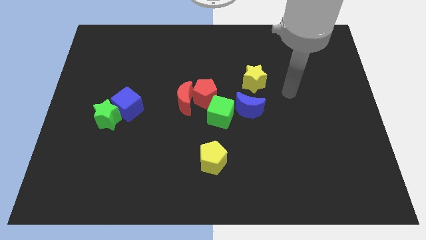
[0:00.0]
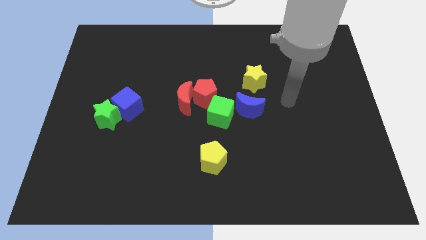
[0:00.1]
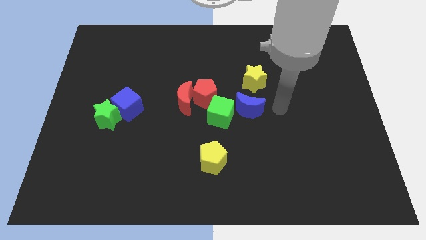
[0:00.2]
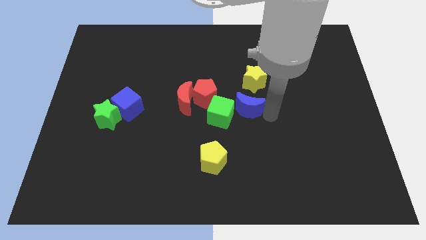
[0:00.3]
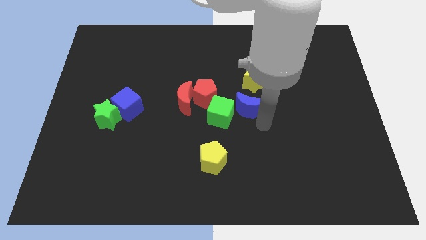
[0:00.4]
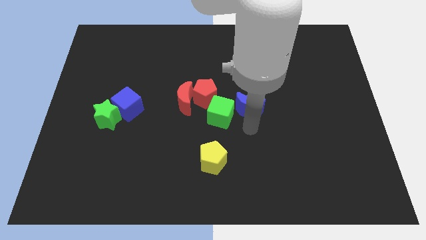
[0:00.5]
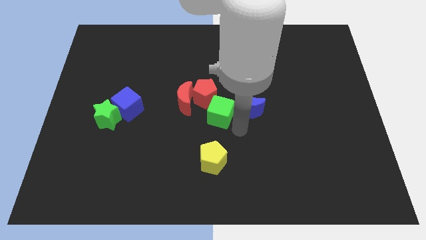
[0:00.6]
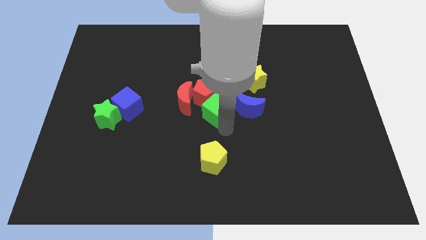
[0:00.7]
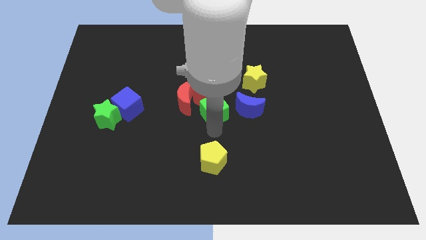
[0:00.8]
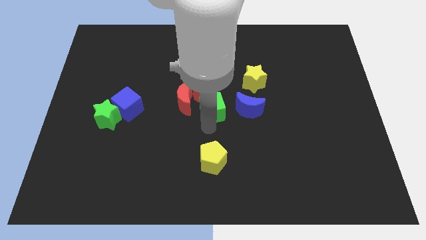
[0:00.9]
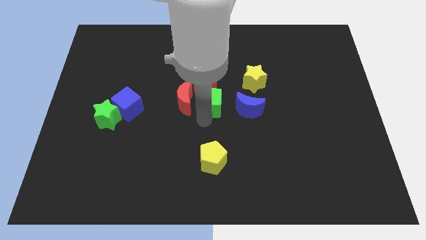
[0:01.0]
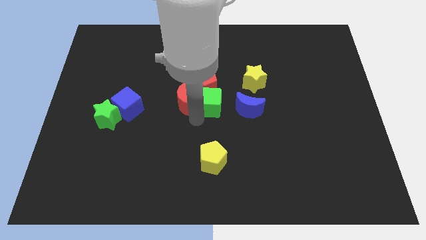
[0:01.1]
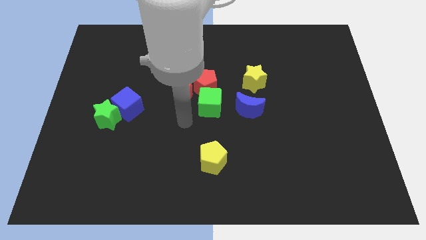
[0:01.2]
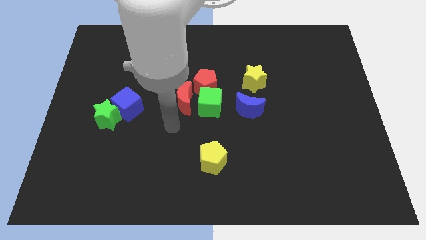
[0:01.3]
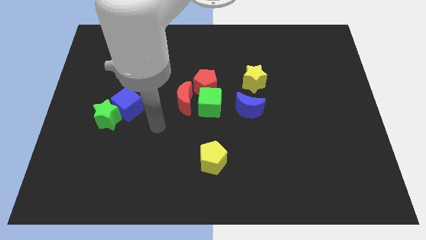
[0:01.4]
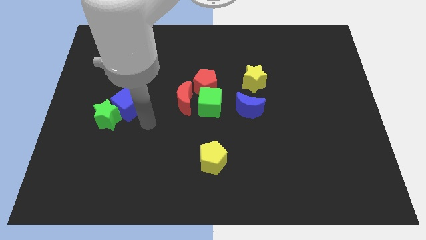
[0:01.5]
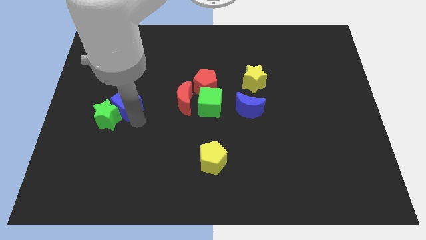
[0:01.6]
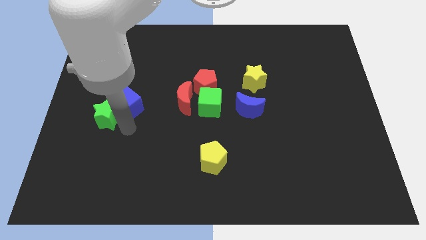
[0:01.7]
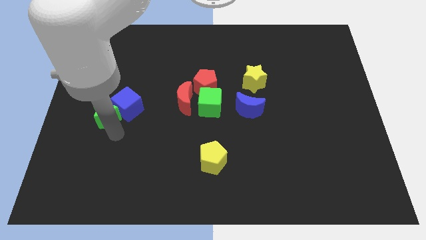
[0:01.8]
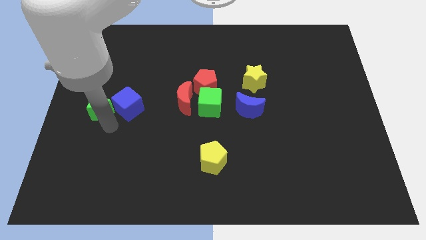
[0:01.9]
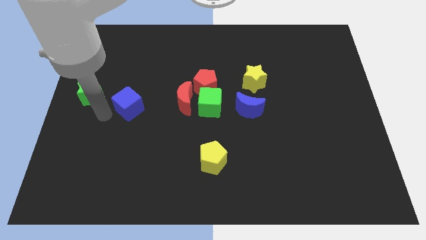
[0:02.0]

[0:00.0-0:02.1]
pull the blue cube apart from the green star

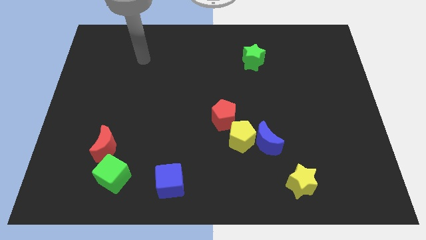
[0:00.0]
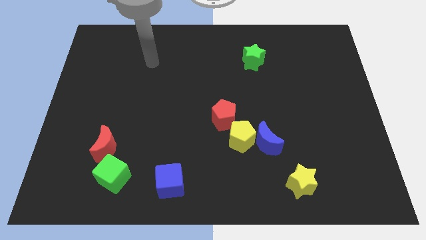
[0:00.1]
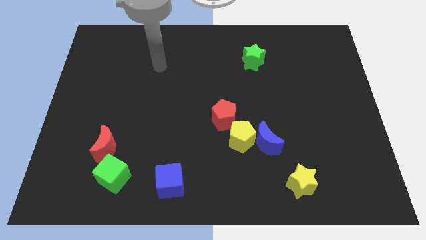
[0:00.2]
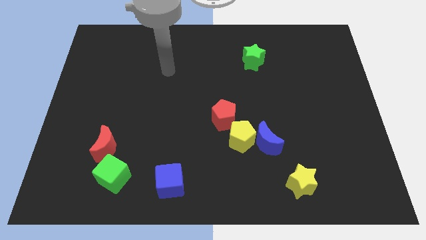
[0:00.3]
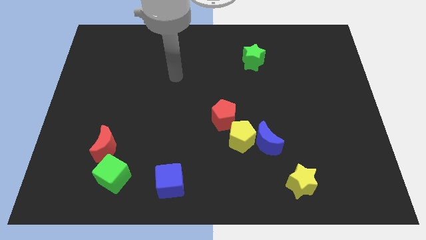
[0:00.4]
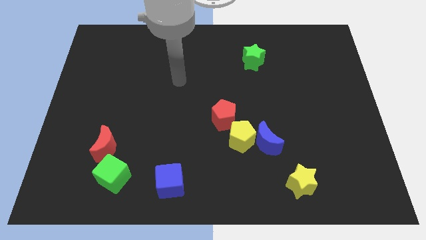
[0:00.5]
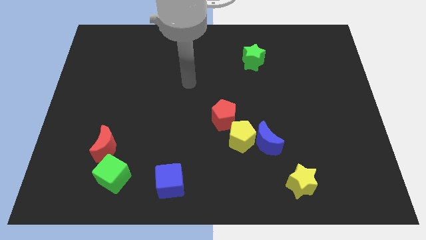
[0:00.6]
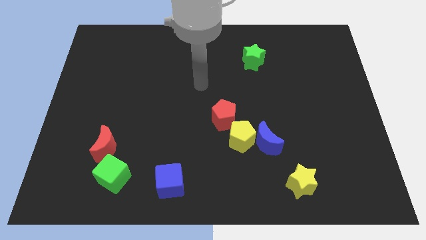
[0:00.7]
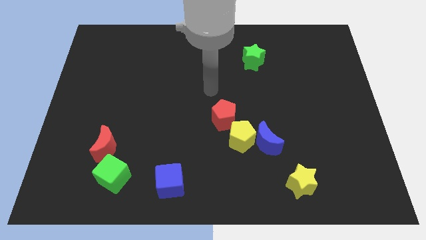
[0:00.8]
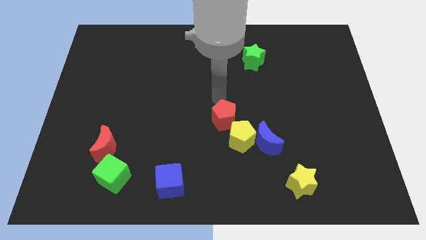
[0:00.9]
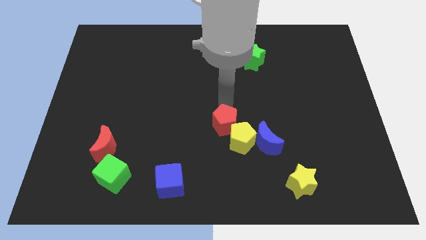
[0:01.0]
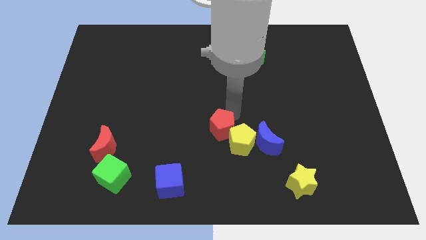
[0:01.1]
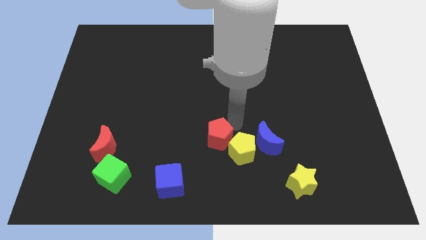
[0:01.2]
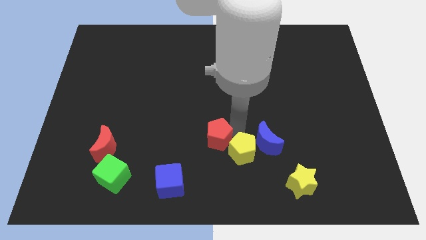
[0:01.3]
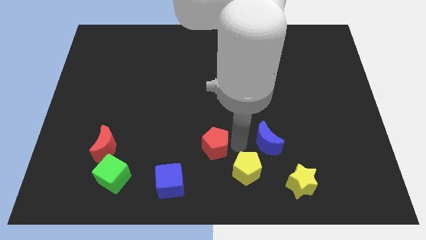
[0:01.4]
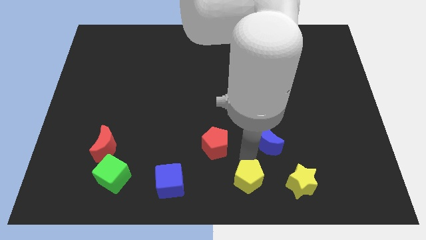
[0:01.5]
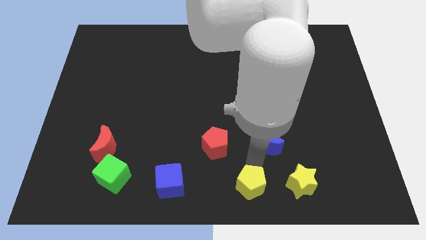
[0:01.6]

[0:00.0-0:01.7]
pull the blue moon apart from the yellow pentagon

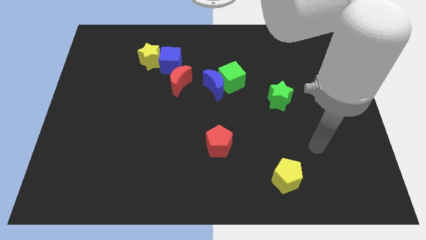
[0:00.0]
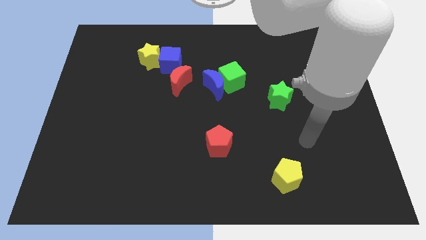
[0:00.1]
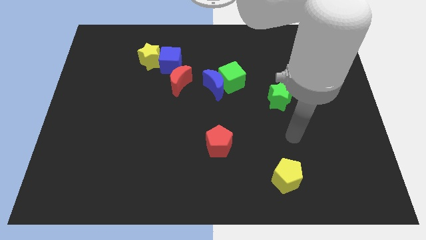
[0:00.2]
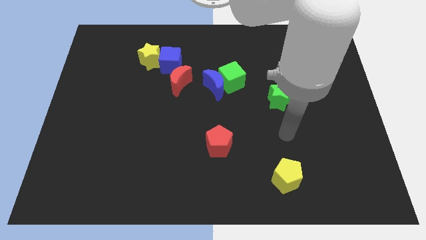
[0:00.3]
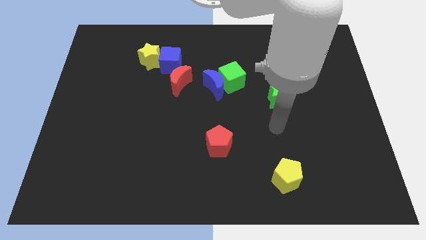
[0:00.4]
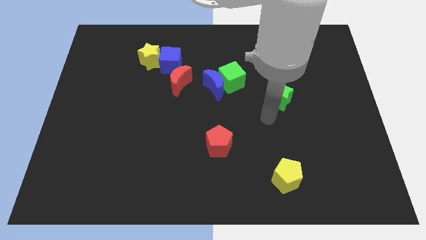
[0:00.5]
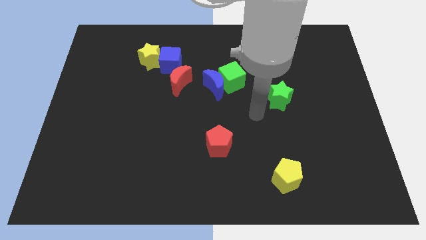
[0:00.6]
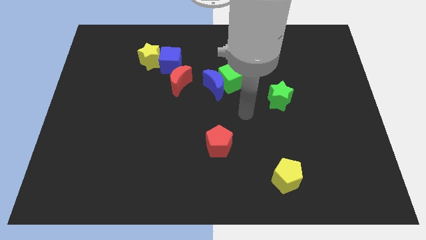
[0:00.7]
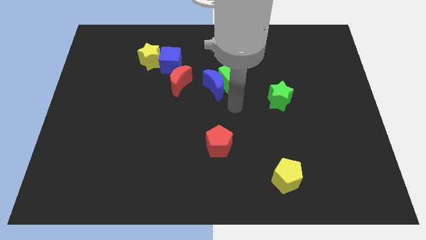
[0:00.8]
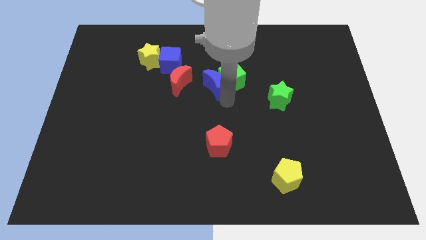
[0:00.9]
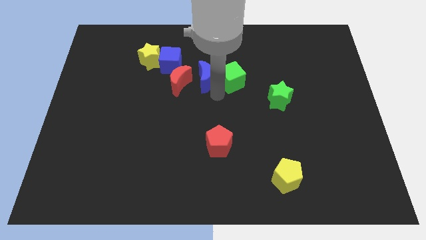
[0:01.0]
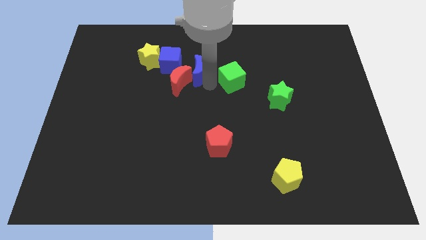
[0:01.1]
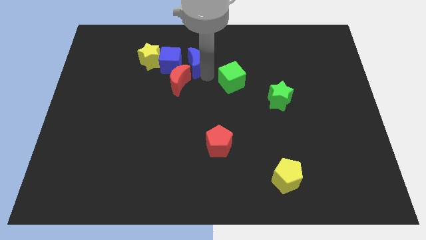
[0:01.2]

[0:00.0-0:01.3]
pull the green cube apart from the blue moon

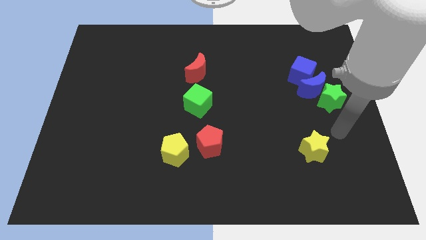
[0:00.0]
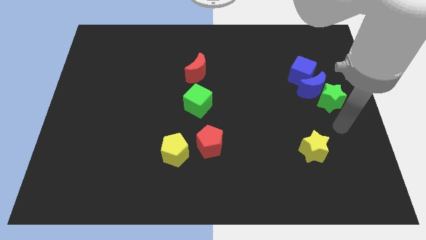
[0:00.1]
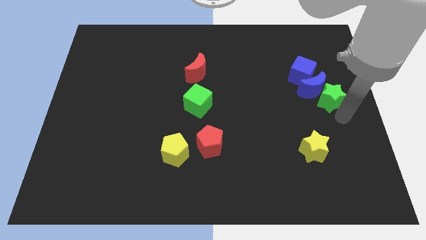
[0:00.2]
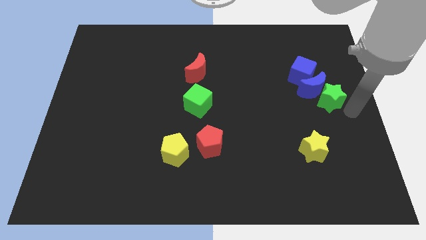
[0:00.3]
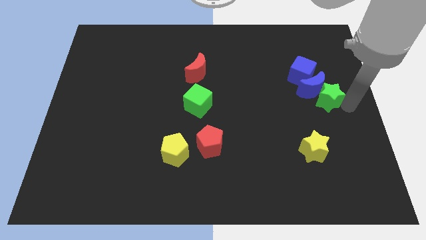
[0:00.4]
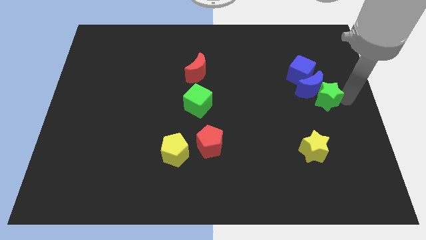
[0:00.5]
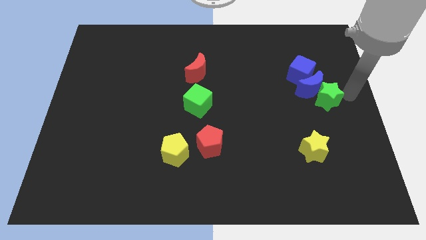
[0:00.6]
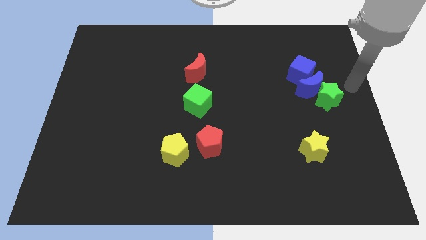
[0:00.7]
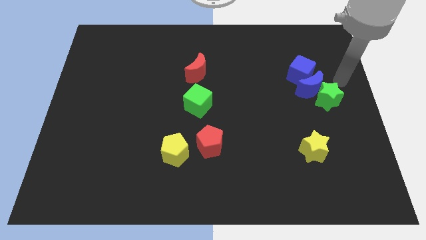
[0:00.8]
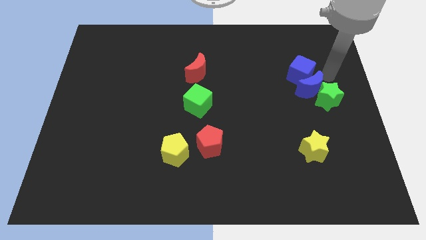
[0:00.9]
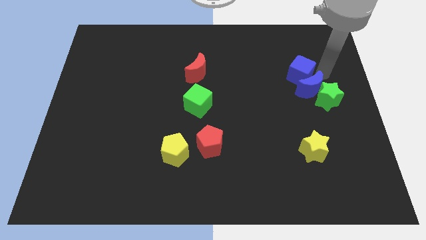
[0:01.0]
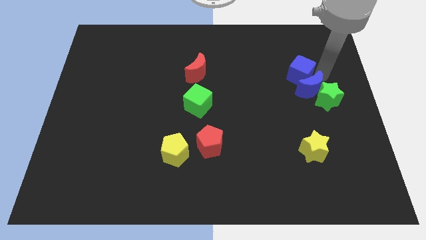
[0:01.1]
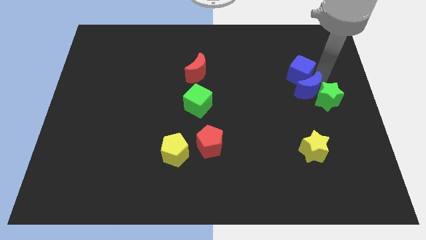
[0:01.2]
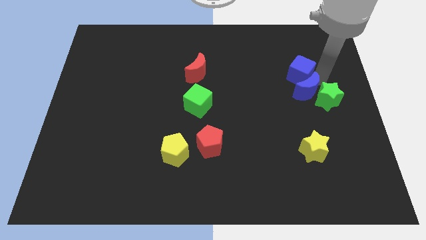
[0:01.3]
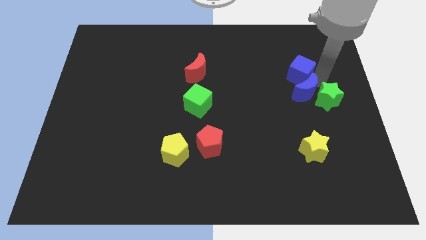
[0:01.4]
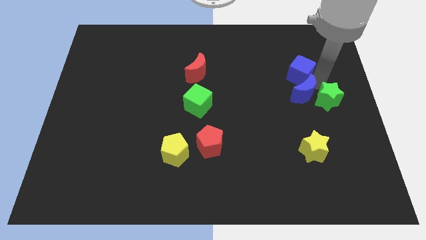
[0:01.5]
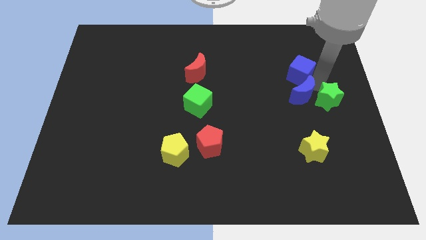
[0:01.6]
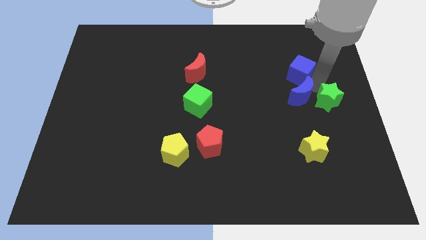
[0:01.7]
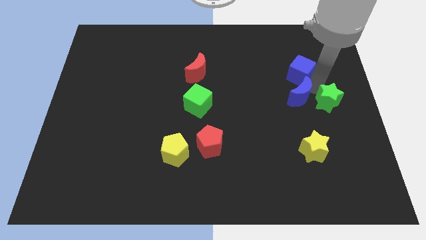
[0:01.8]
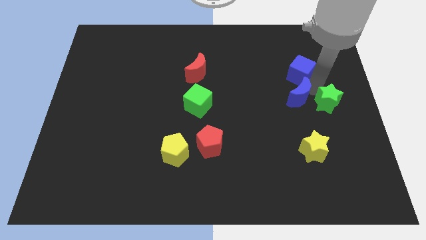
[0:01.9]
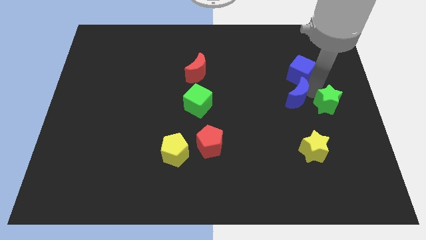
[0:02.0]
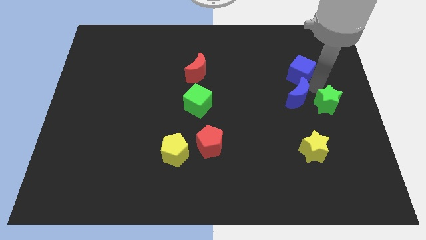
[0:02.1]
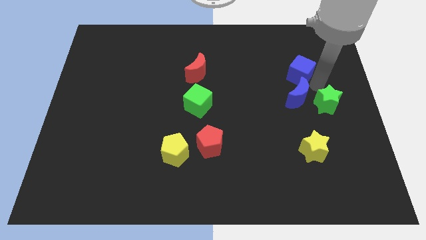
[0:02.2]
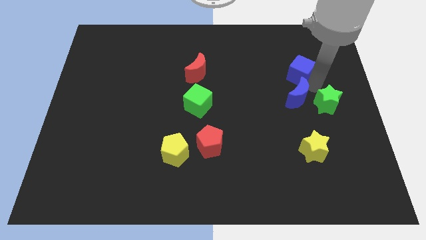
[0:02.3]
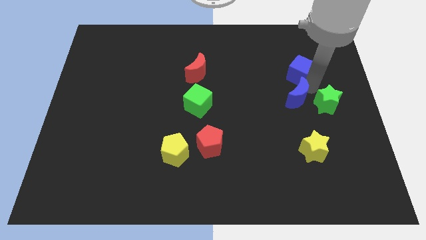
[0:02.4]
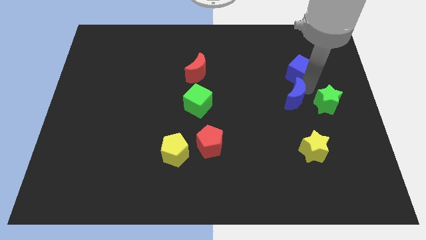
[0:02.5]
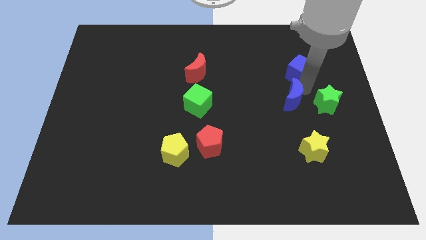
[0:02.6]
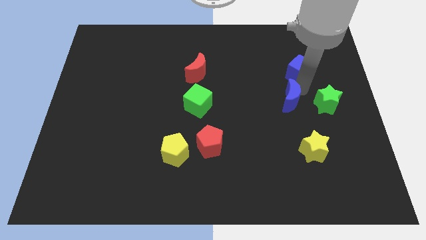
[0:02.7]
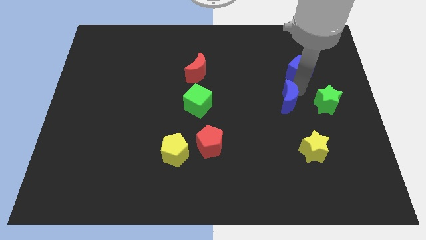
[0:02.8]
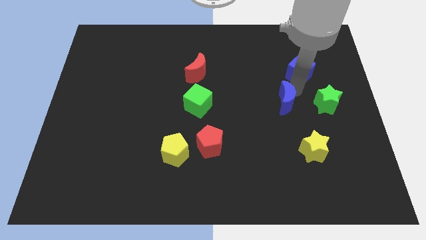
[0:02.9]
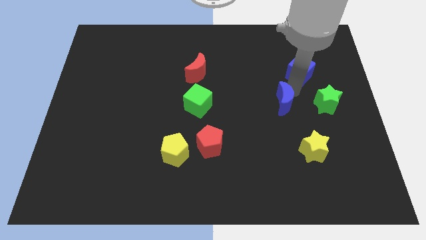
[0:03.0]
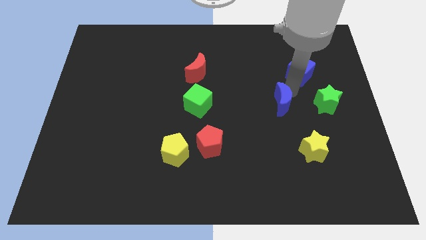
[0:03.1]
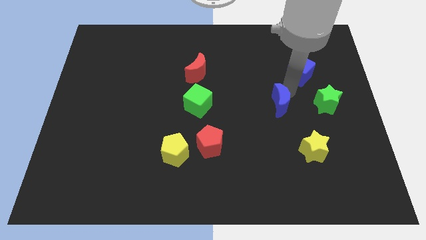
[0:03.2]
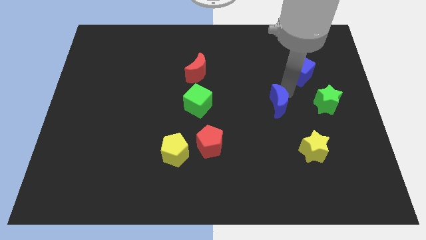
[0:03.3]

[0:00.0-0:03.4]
move the blue moon away from the green star and blue cube

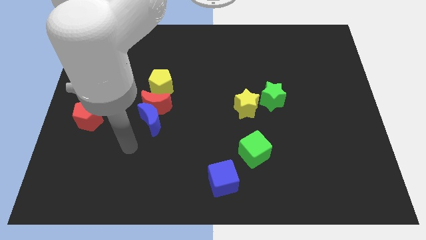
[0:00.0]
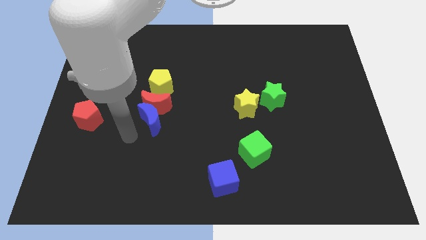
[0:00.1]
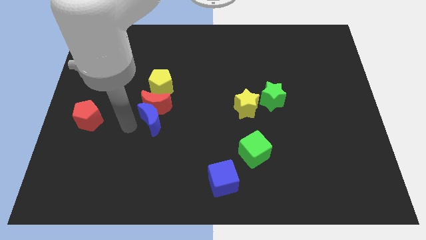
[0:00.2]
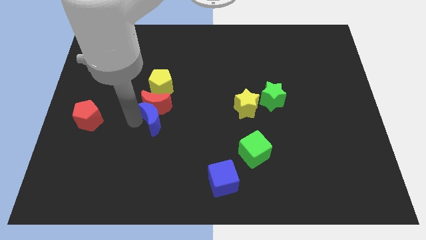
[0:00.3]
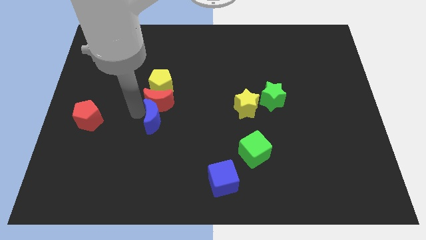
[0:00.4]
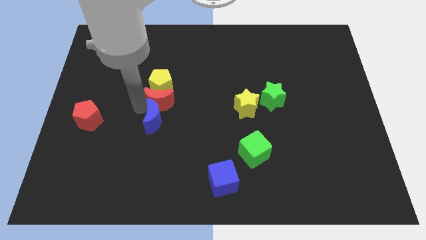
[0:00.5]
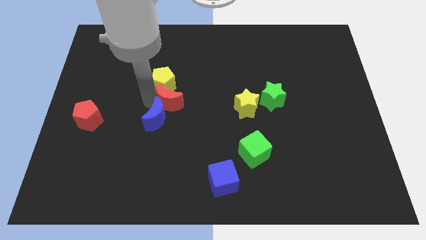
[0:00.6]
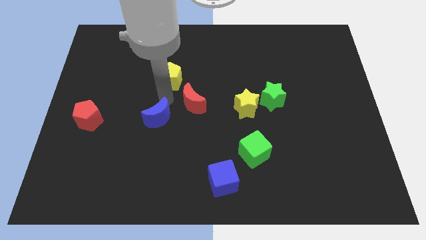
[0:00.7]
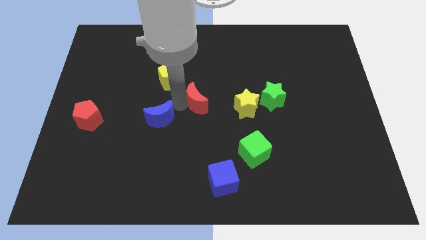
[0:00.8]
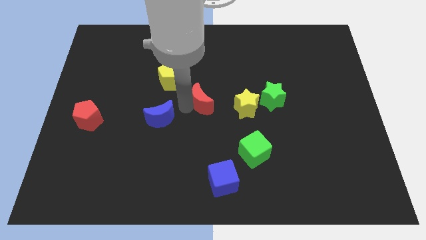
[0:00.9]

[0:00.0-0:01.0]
separate the blue moon from the red moon
